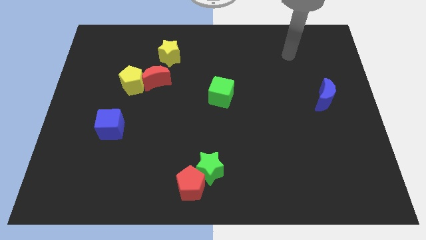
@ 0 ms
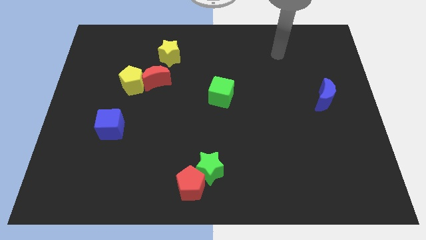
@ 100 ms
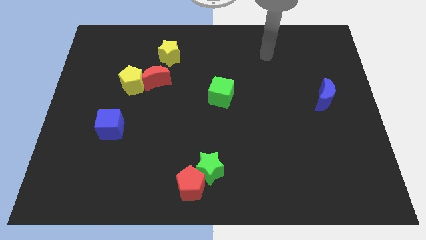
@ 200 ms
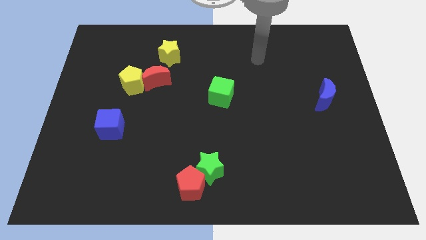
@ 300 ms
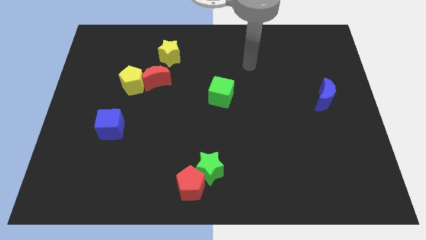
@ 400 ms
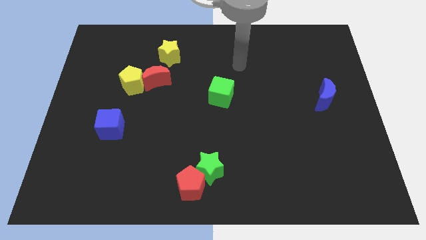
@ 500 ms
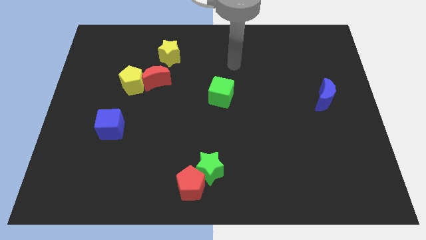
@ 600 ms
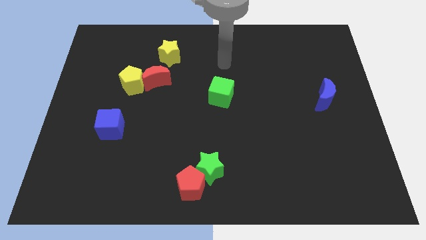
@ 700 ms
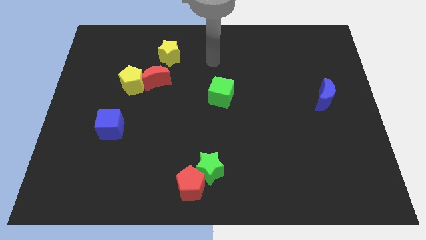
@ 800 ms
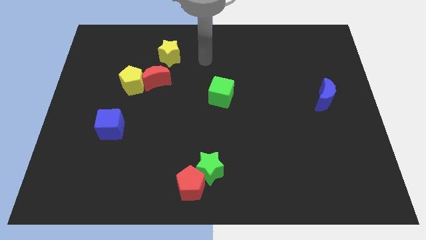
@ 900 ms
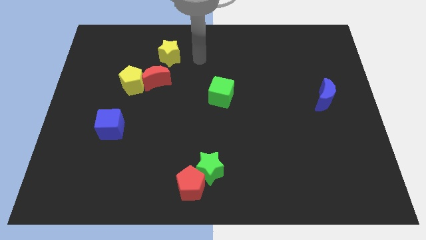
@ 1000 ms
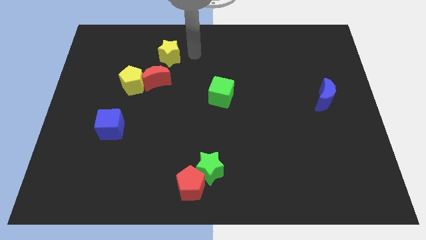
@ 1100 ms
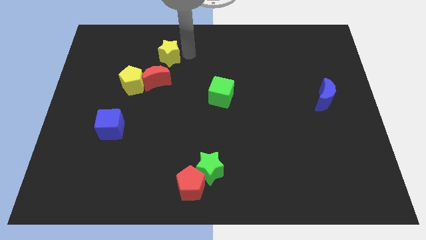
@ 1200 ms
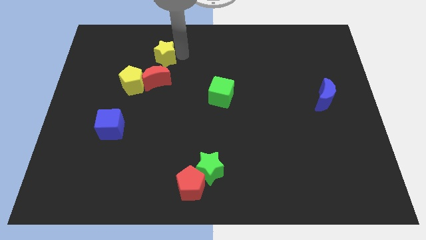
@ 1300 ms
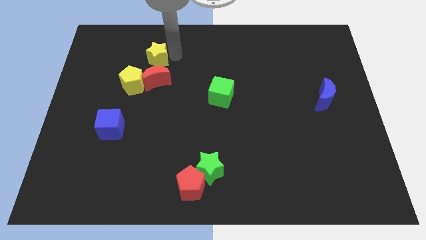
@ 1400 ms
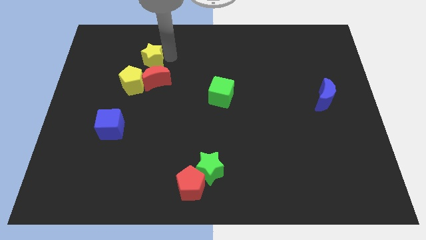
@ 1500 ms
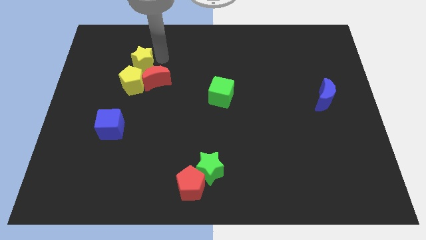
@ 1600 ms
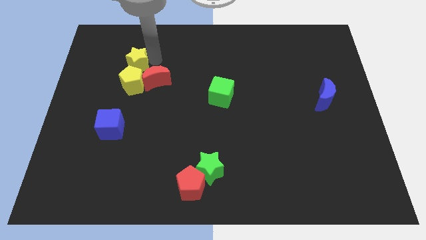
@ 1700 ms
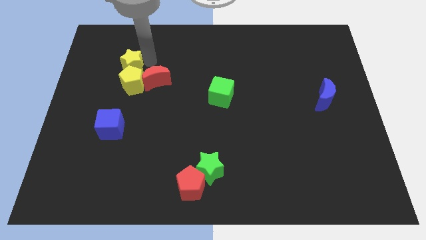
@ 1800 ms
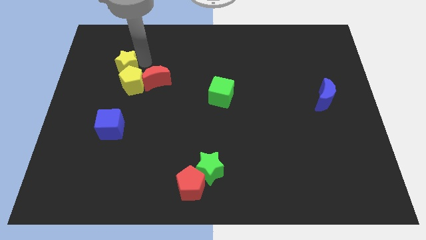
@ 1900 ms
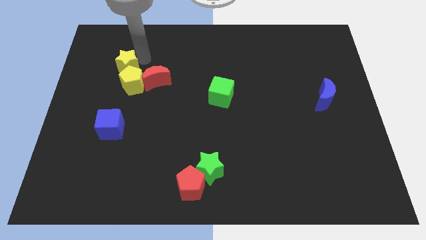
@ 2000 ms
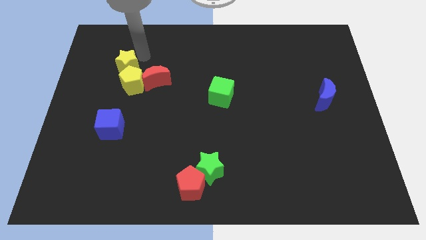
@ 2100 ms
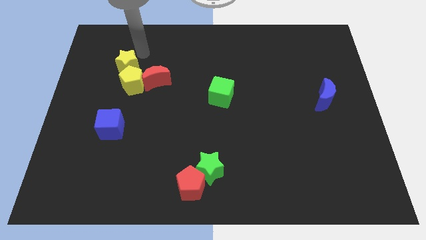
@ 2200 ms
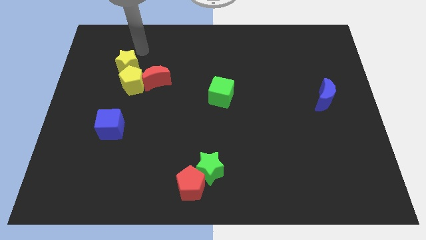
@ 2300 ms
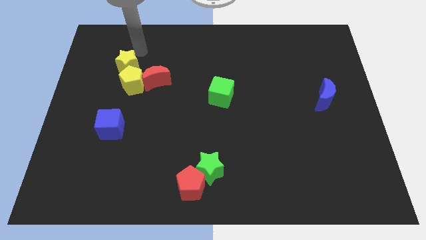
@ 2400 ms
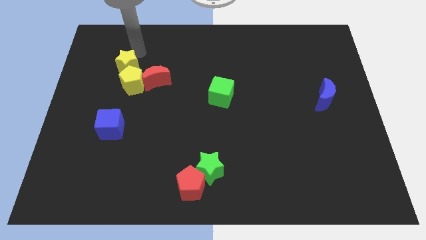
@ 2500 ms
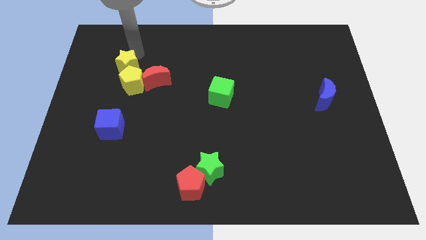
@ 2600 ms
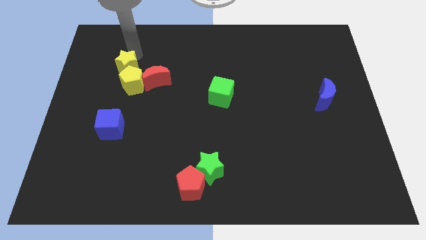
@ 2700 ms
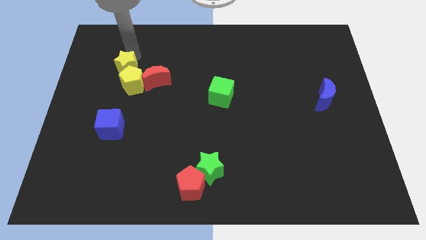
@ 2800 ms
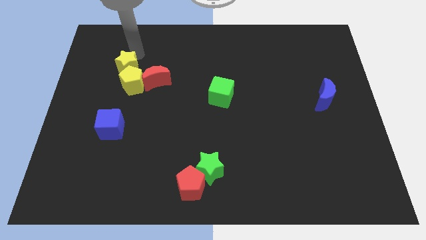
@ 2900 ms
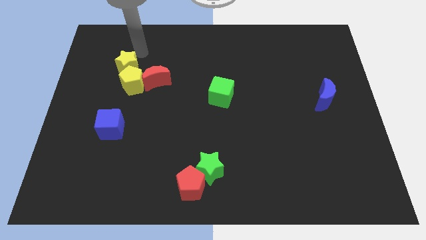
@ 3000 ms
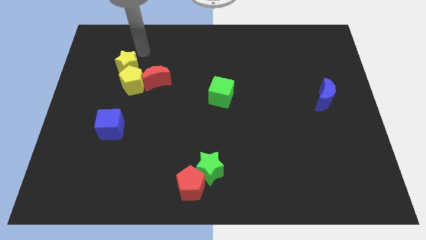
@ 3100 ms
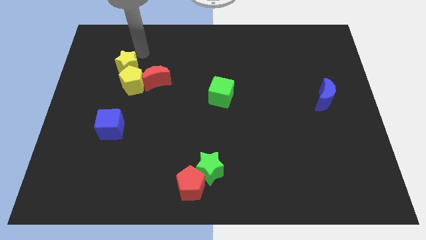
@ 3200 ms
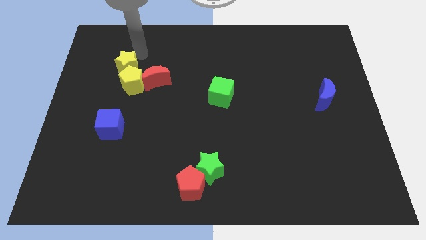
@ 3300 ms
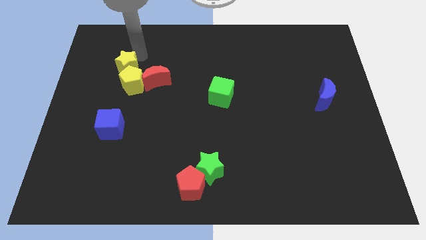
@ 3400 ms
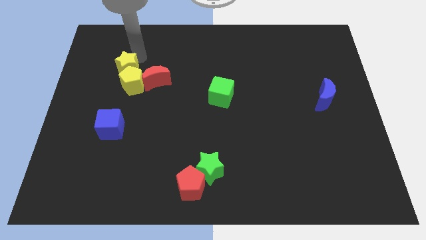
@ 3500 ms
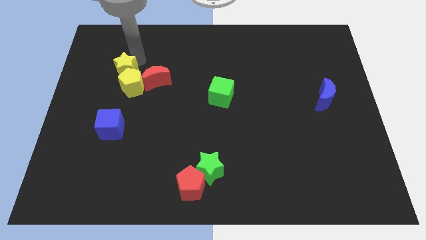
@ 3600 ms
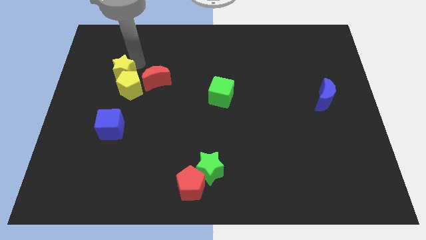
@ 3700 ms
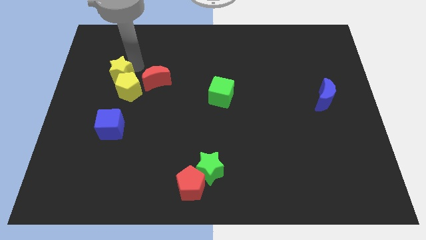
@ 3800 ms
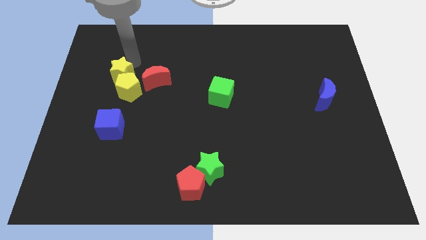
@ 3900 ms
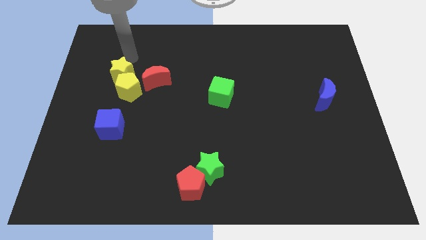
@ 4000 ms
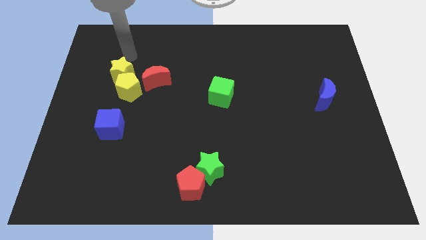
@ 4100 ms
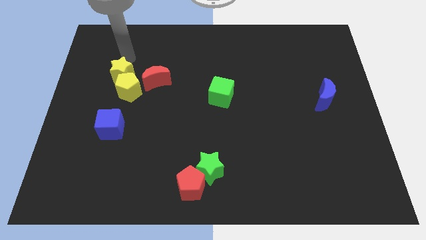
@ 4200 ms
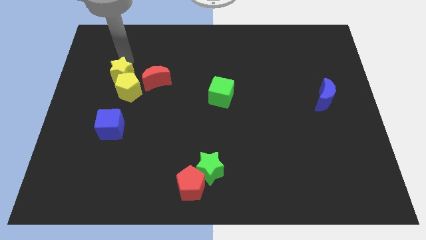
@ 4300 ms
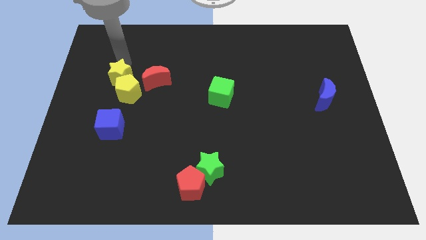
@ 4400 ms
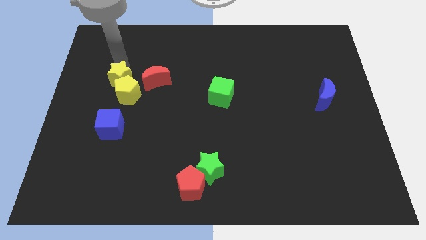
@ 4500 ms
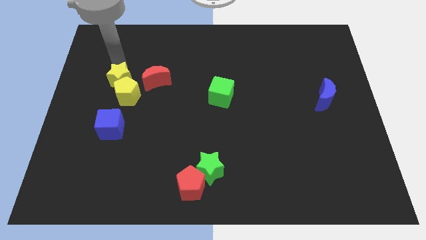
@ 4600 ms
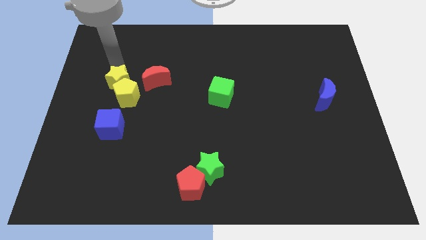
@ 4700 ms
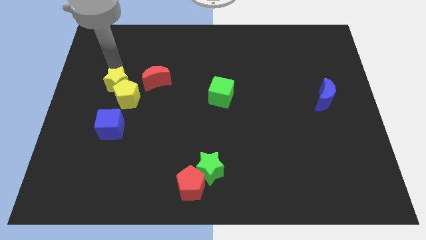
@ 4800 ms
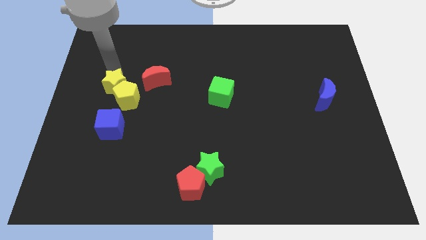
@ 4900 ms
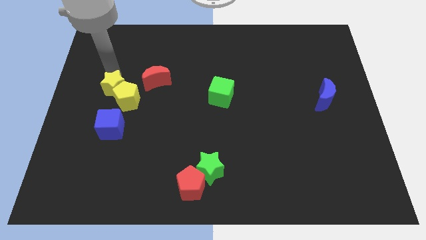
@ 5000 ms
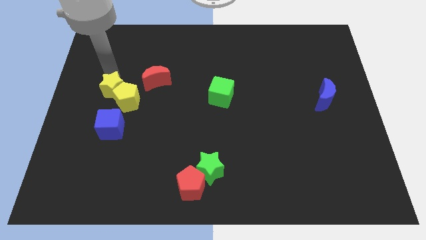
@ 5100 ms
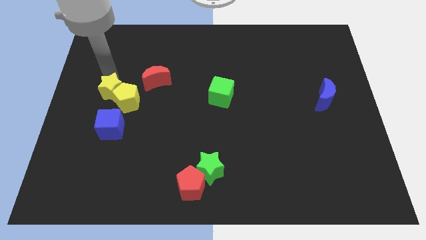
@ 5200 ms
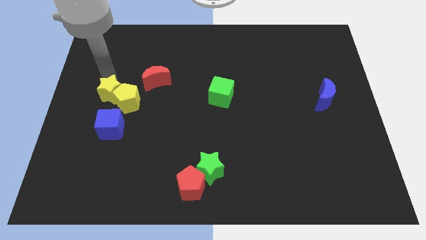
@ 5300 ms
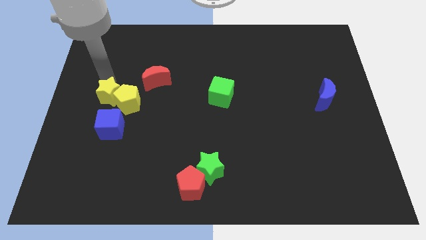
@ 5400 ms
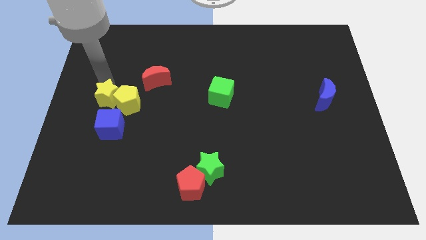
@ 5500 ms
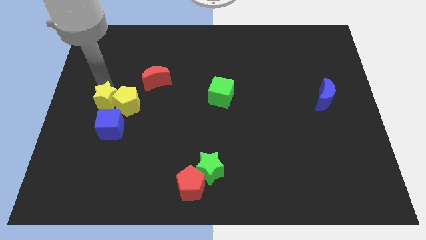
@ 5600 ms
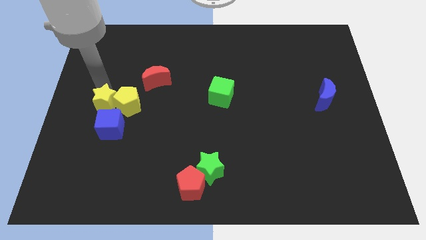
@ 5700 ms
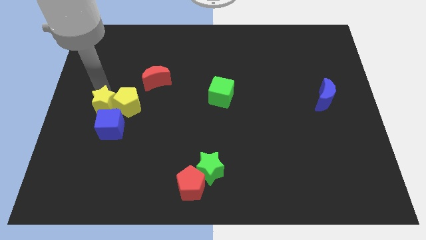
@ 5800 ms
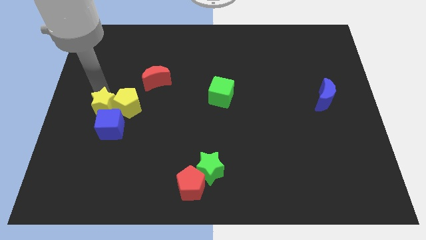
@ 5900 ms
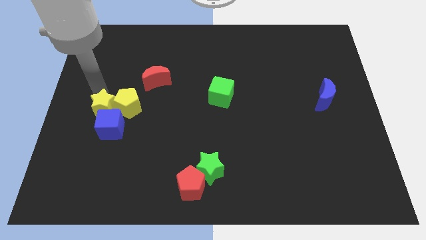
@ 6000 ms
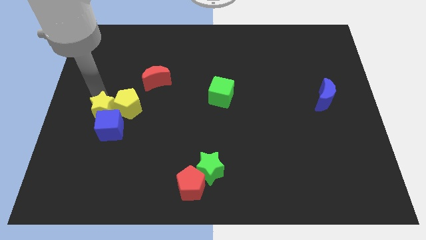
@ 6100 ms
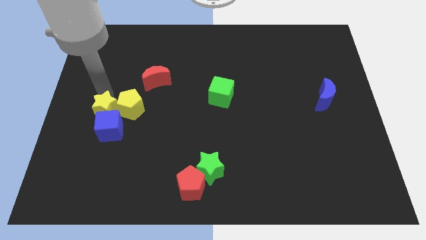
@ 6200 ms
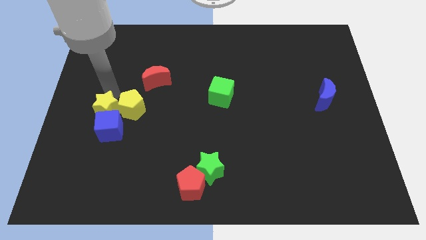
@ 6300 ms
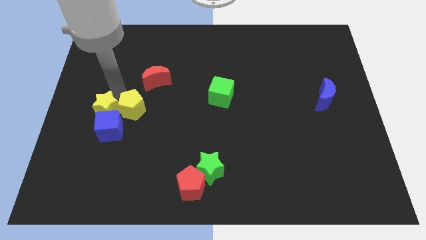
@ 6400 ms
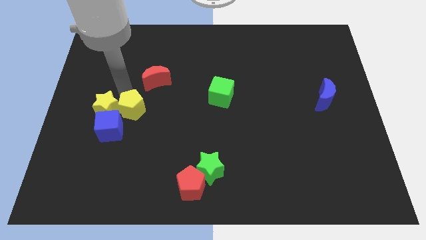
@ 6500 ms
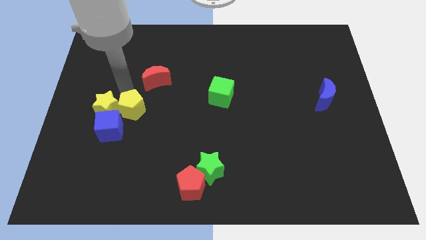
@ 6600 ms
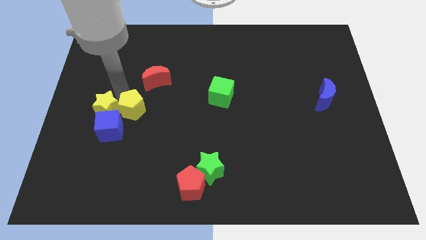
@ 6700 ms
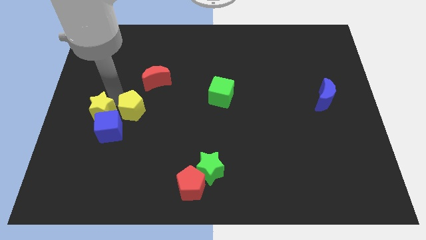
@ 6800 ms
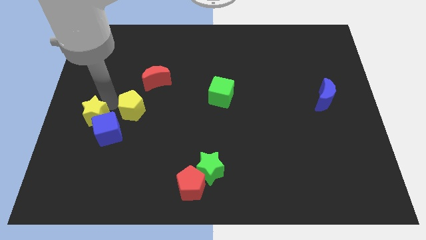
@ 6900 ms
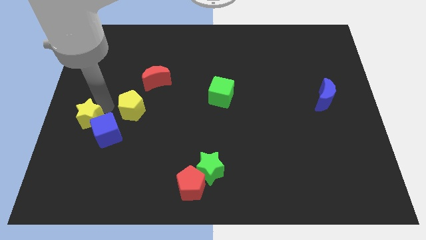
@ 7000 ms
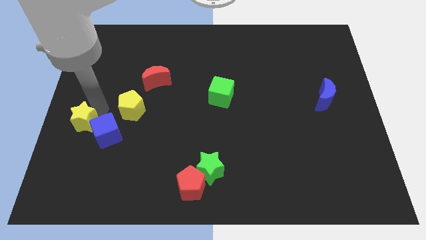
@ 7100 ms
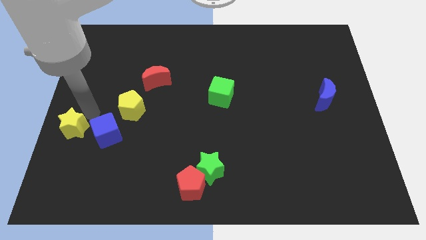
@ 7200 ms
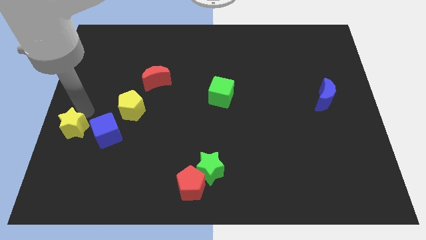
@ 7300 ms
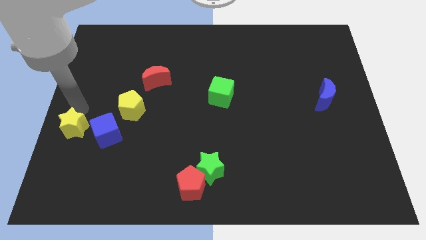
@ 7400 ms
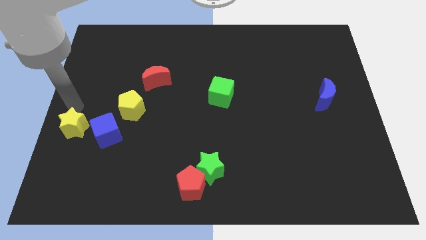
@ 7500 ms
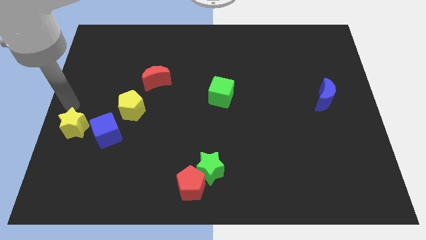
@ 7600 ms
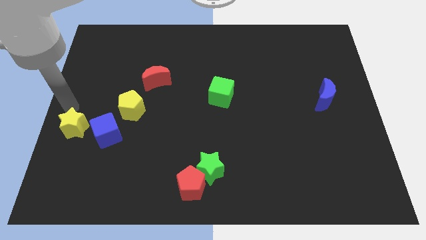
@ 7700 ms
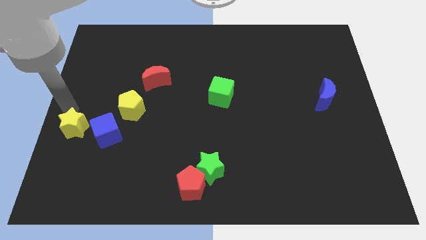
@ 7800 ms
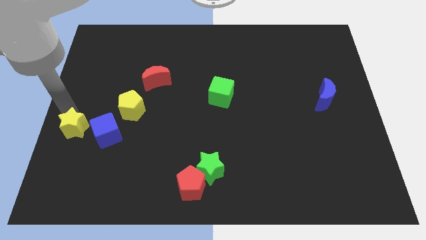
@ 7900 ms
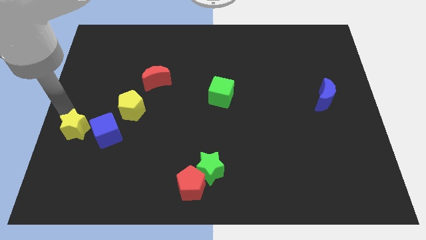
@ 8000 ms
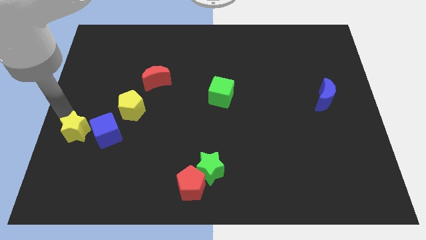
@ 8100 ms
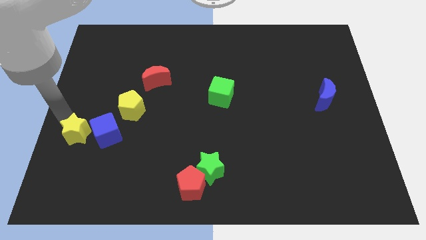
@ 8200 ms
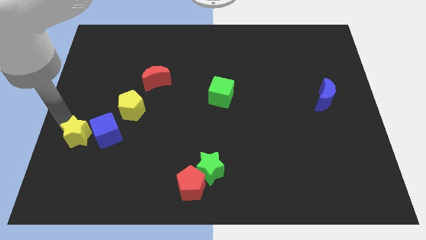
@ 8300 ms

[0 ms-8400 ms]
move the yellow star diagonally down and to the left of the blue cube
